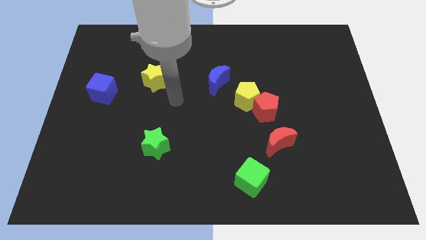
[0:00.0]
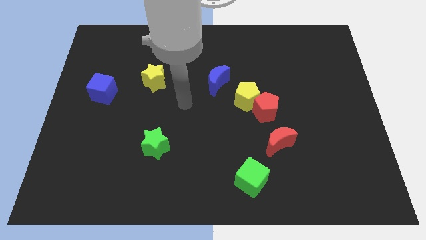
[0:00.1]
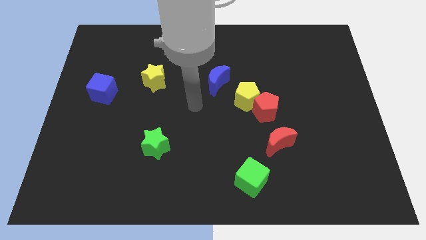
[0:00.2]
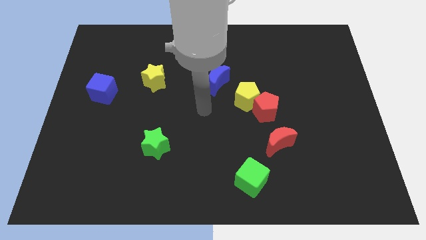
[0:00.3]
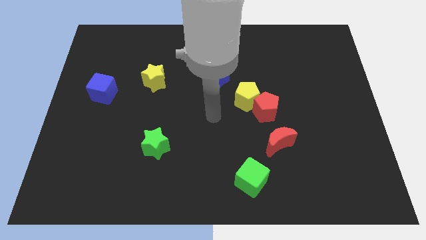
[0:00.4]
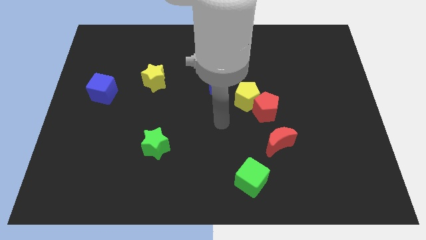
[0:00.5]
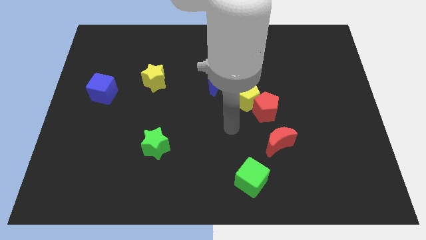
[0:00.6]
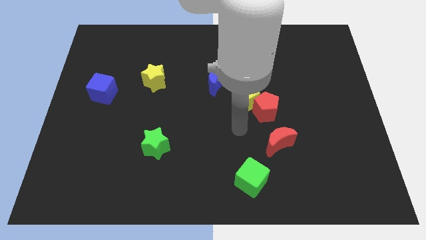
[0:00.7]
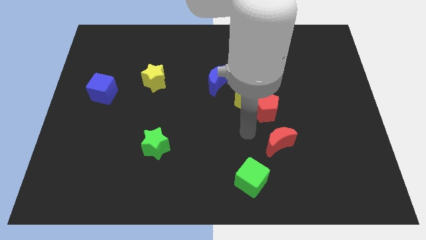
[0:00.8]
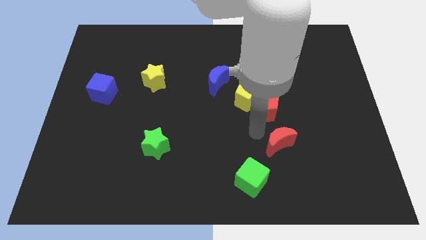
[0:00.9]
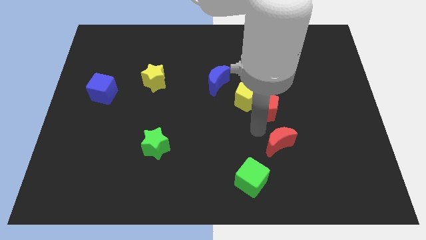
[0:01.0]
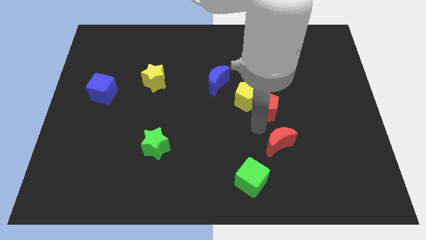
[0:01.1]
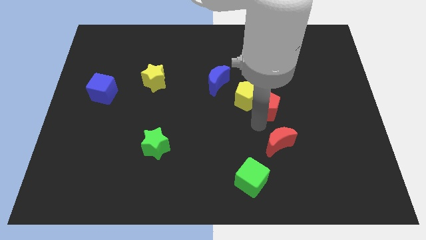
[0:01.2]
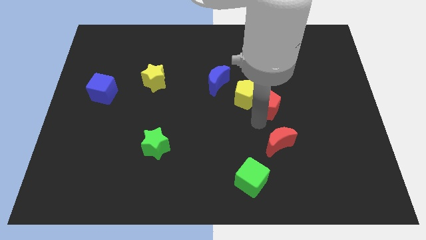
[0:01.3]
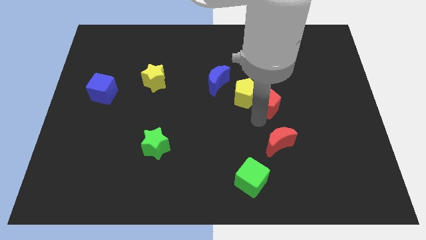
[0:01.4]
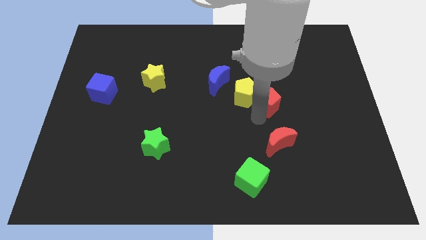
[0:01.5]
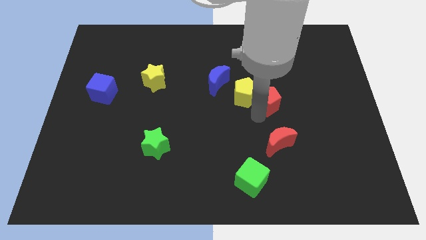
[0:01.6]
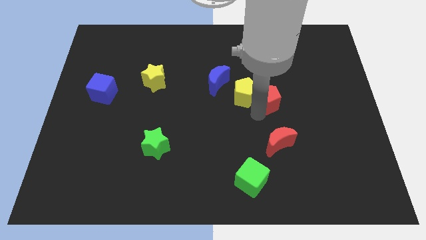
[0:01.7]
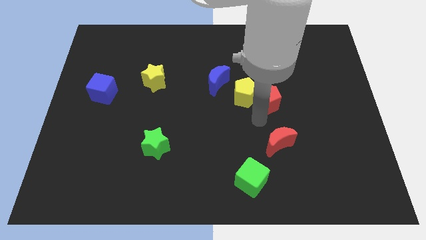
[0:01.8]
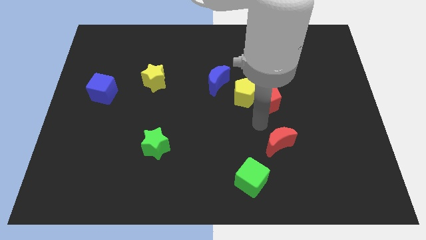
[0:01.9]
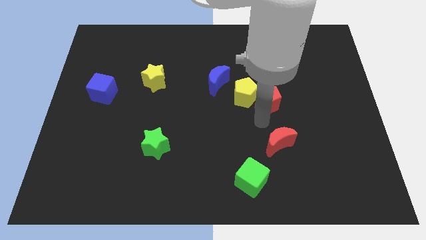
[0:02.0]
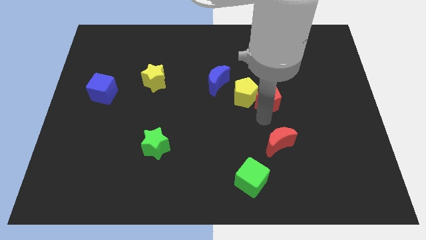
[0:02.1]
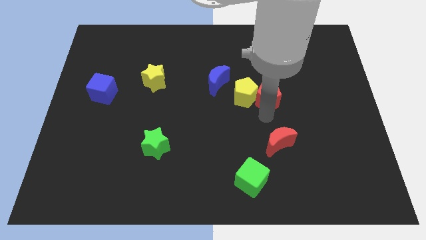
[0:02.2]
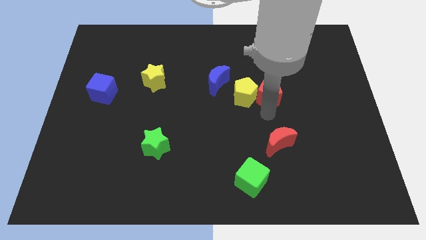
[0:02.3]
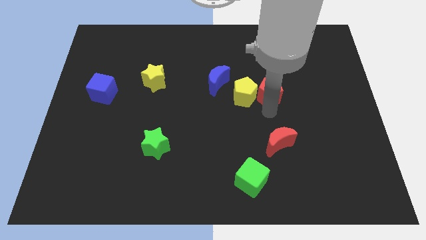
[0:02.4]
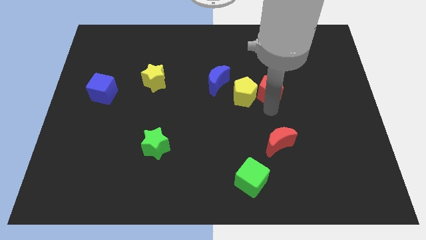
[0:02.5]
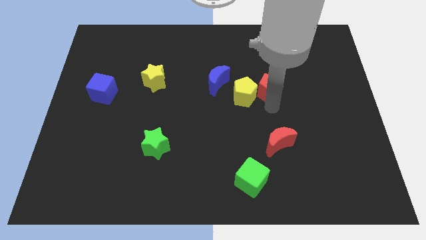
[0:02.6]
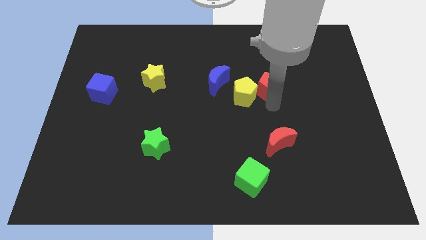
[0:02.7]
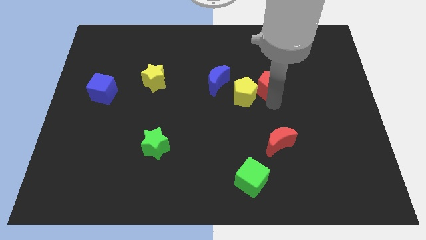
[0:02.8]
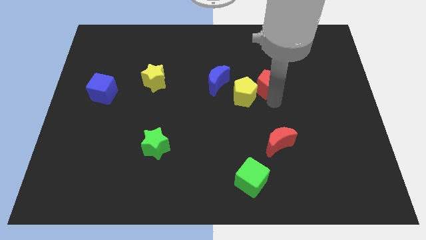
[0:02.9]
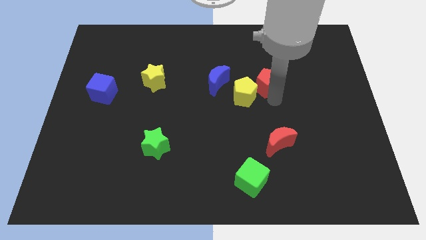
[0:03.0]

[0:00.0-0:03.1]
move the red pentagon away from the yellow pentagon and red moon

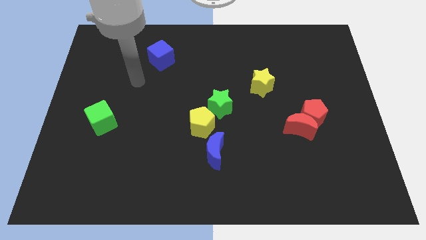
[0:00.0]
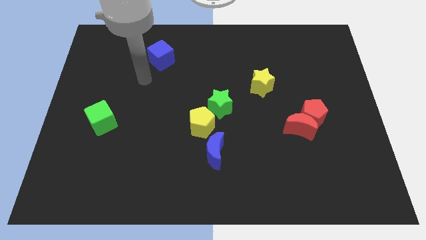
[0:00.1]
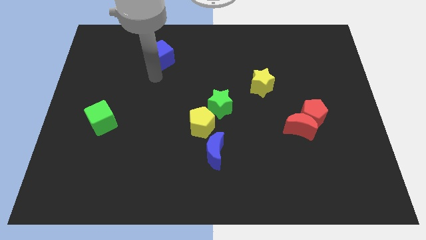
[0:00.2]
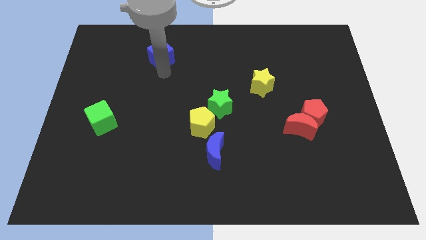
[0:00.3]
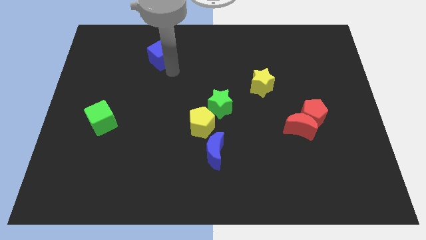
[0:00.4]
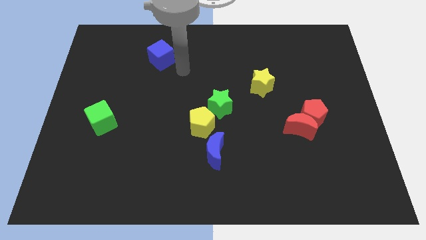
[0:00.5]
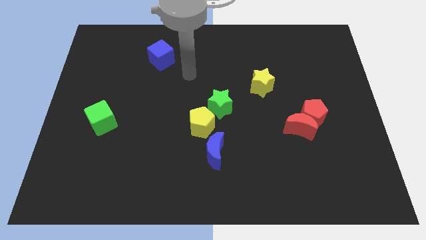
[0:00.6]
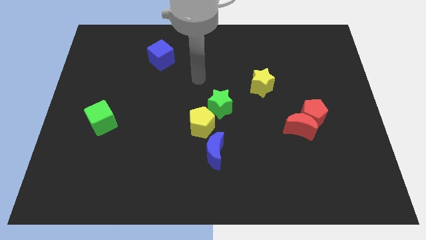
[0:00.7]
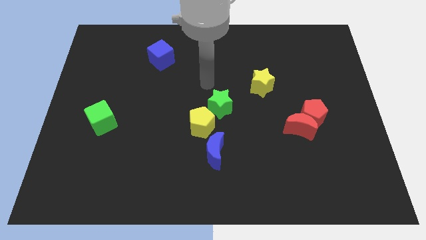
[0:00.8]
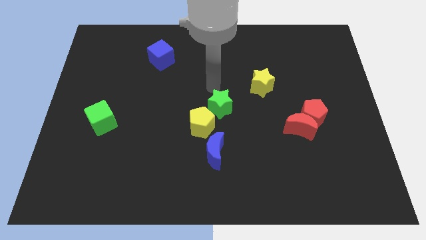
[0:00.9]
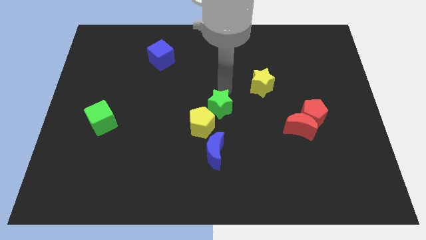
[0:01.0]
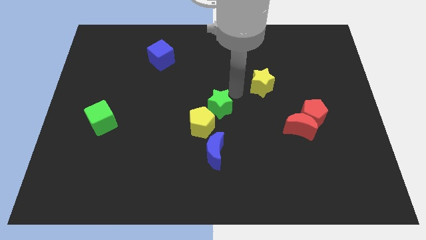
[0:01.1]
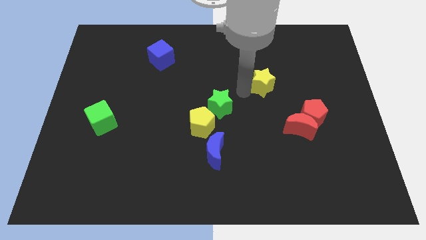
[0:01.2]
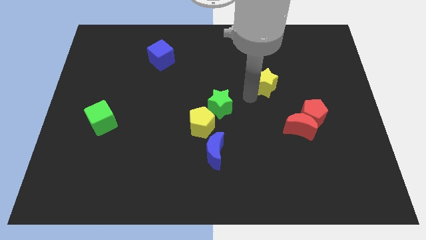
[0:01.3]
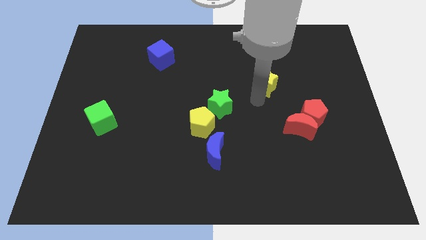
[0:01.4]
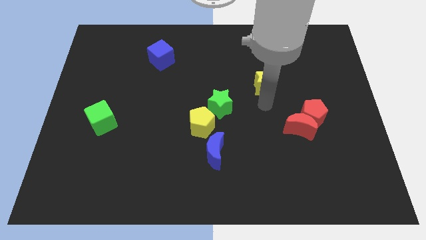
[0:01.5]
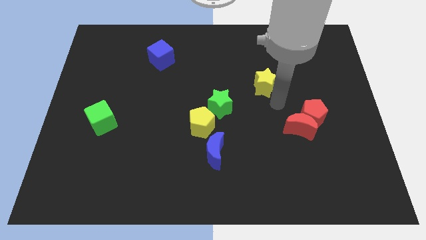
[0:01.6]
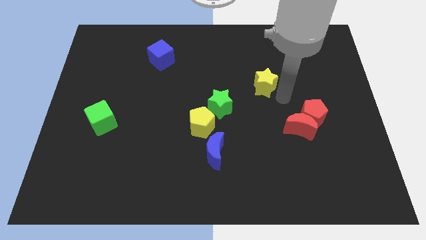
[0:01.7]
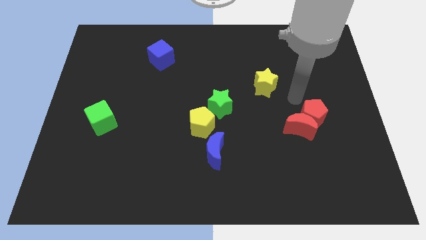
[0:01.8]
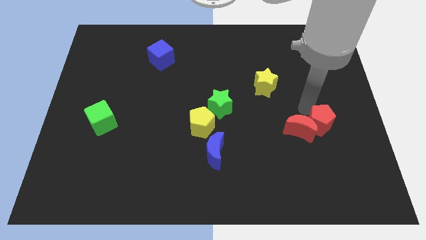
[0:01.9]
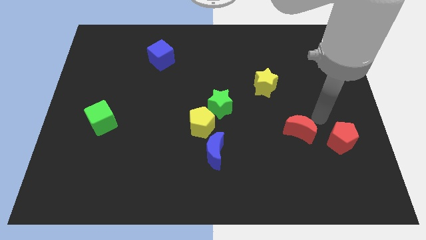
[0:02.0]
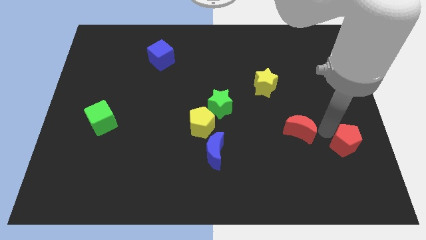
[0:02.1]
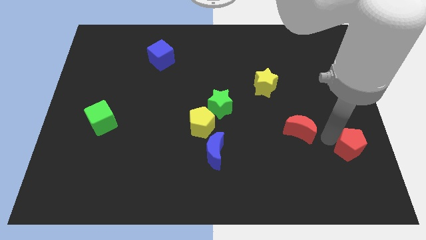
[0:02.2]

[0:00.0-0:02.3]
move the red moon away from the red pentagon

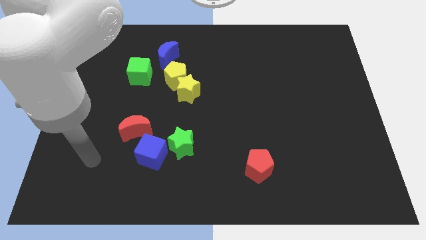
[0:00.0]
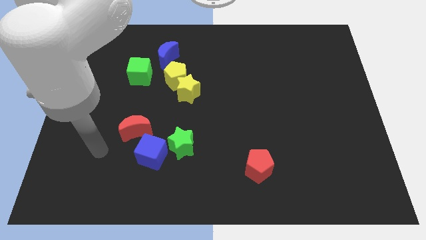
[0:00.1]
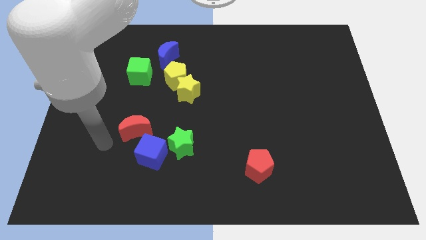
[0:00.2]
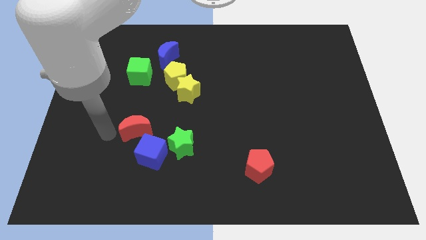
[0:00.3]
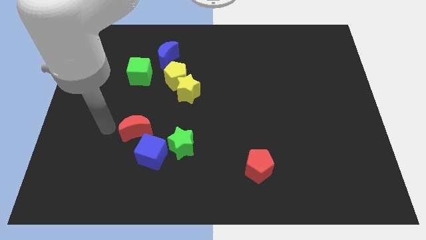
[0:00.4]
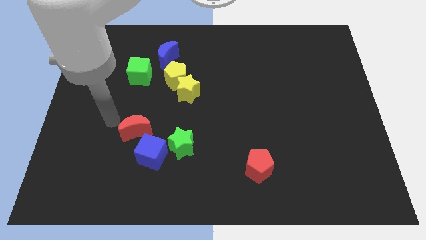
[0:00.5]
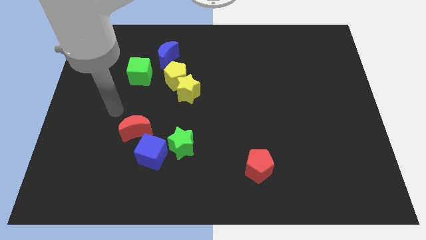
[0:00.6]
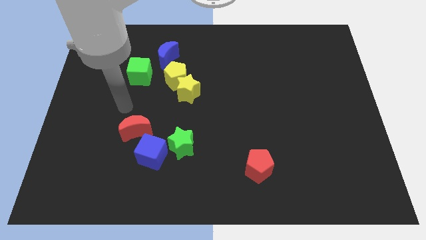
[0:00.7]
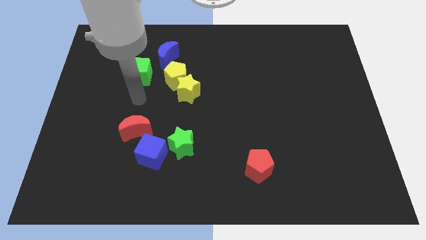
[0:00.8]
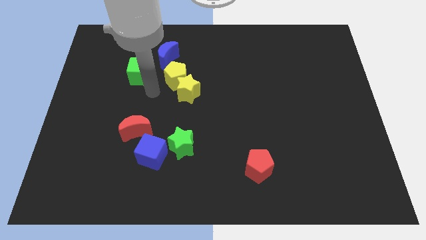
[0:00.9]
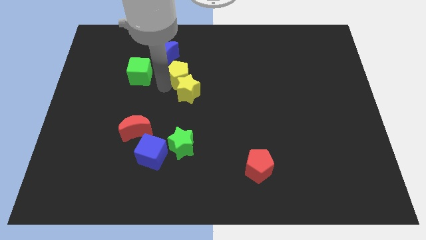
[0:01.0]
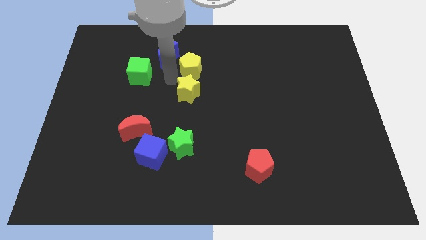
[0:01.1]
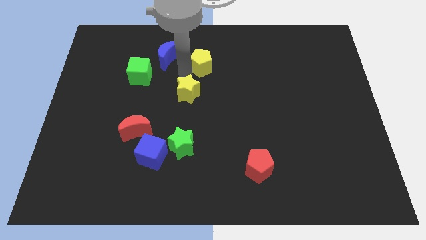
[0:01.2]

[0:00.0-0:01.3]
move the yellow star away from the yellow pentagon

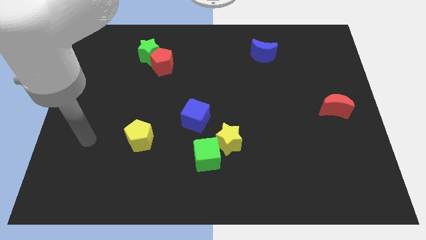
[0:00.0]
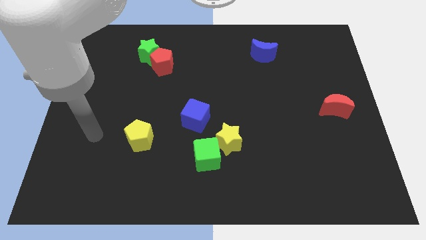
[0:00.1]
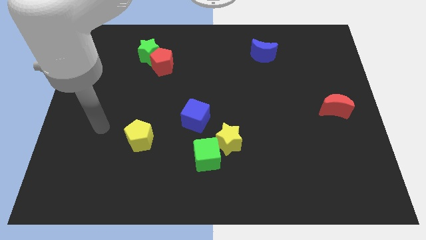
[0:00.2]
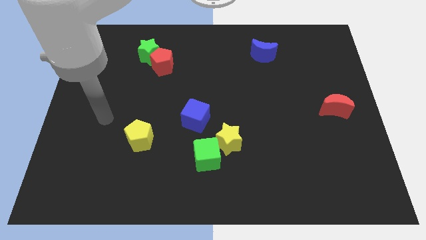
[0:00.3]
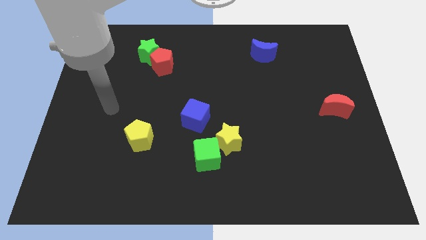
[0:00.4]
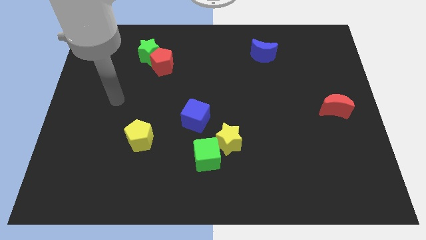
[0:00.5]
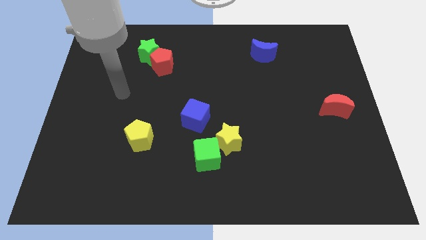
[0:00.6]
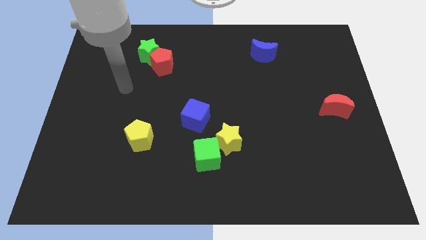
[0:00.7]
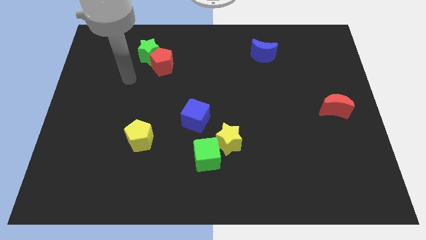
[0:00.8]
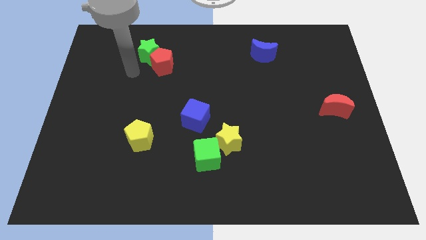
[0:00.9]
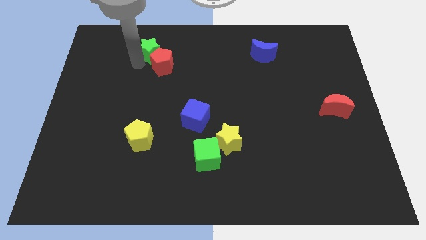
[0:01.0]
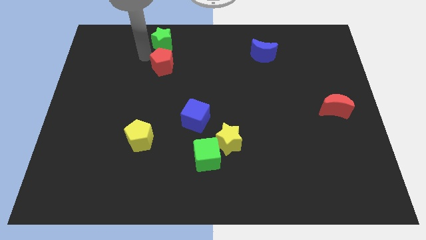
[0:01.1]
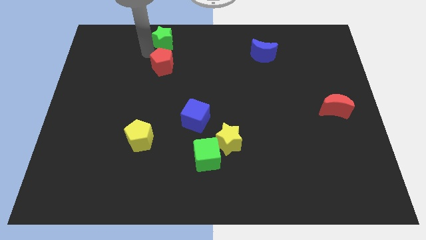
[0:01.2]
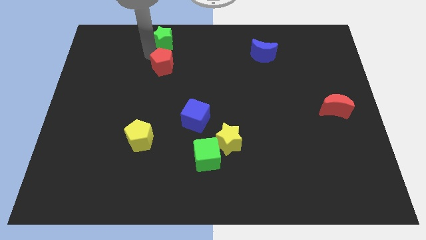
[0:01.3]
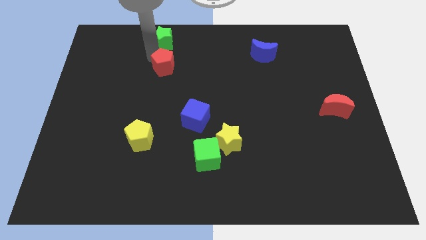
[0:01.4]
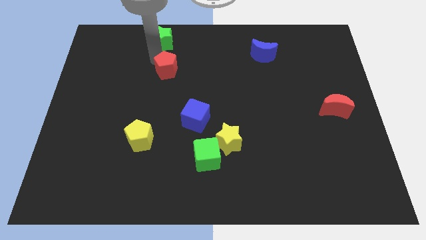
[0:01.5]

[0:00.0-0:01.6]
pull the red pentagon apart from the green star

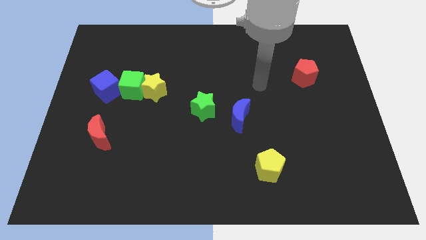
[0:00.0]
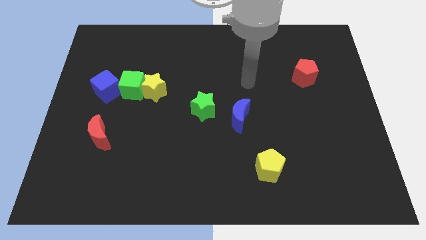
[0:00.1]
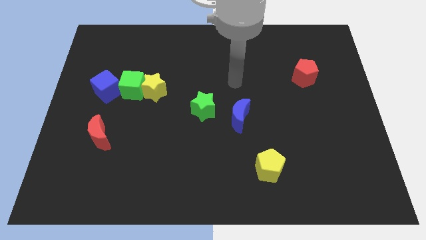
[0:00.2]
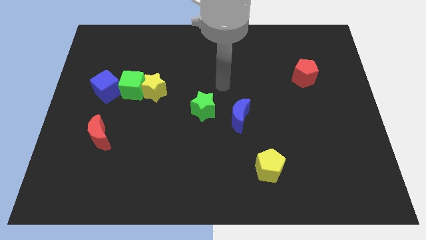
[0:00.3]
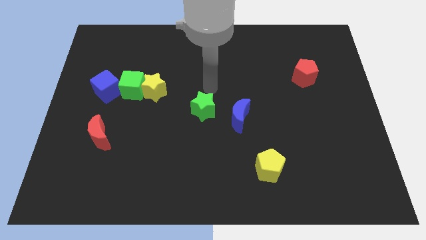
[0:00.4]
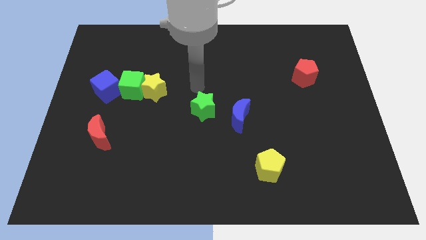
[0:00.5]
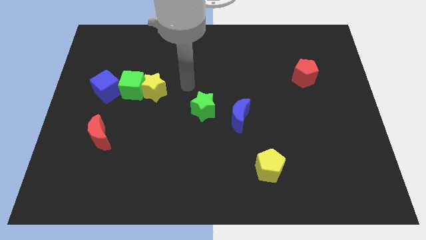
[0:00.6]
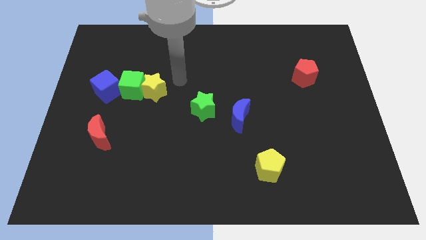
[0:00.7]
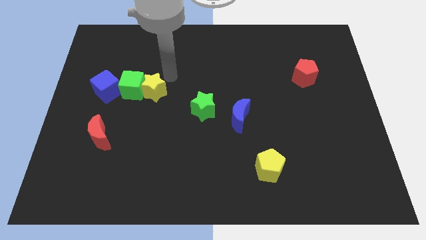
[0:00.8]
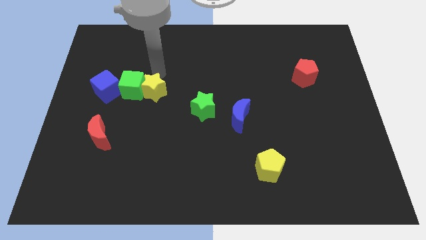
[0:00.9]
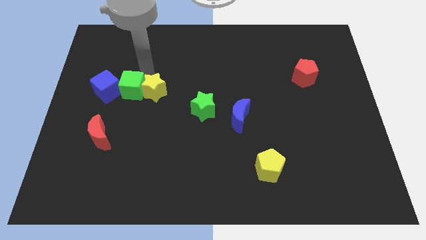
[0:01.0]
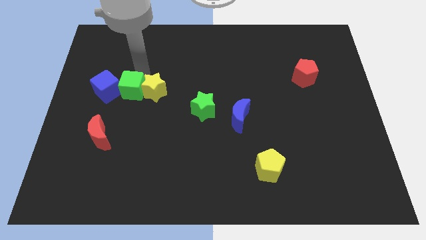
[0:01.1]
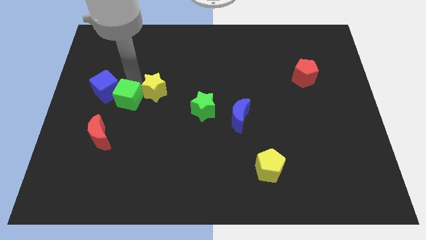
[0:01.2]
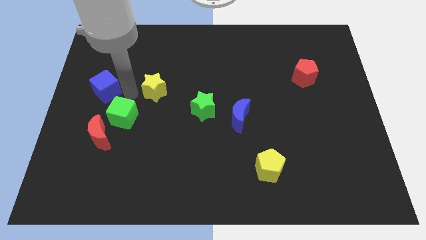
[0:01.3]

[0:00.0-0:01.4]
move the yellow star away from the green cube
